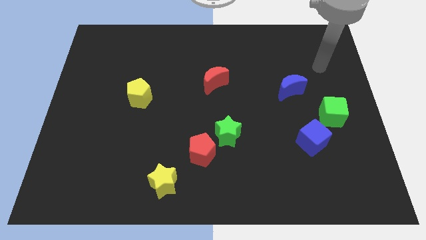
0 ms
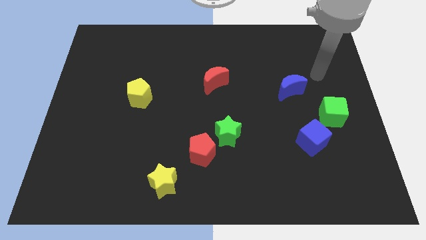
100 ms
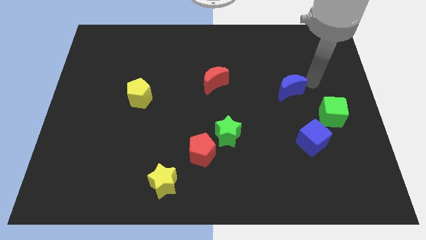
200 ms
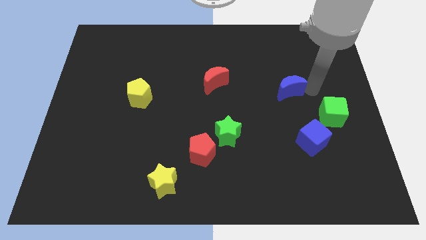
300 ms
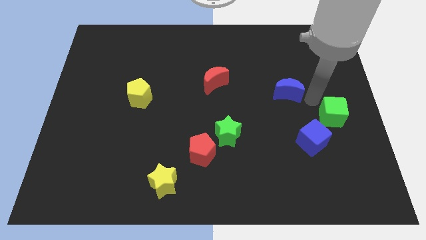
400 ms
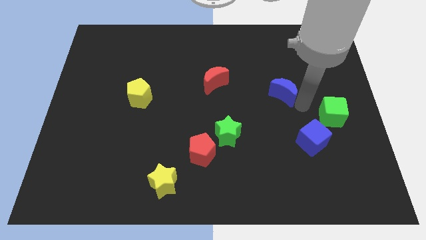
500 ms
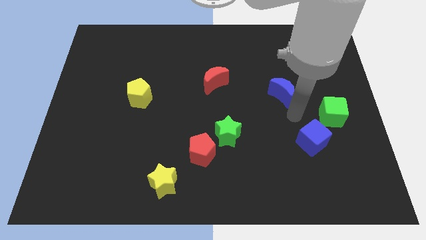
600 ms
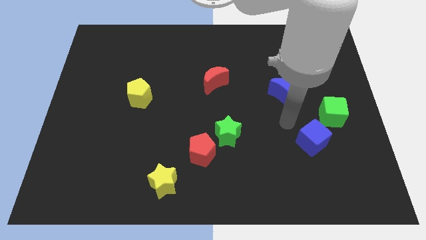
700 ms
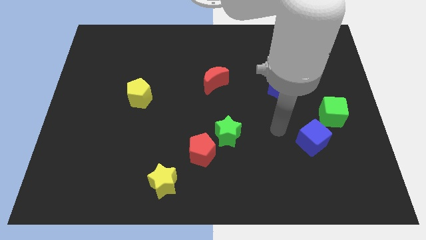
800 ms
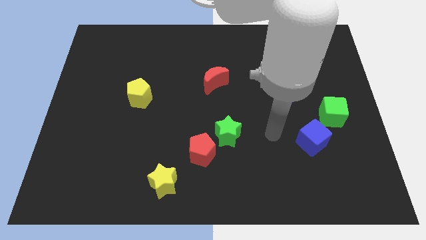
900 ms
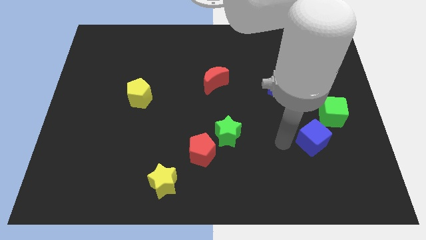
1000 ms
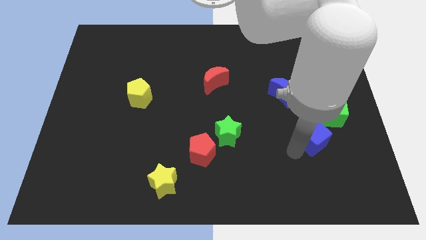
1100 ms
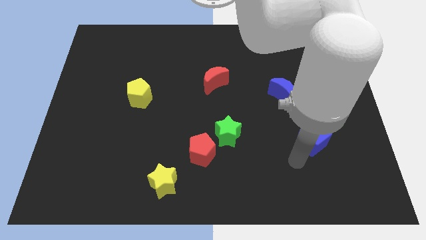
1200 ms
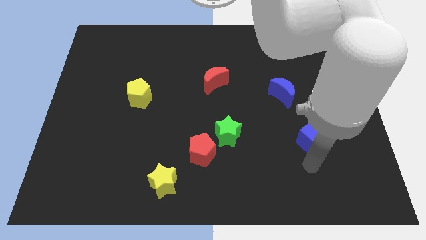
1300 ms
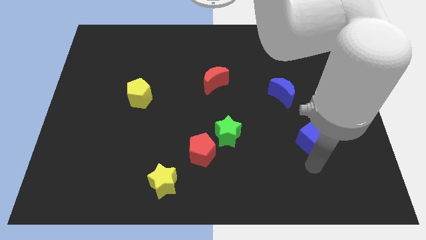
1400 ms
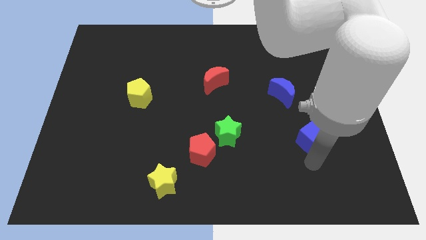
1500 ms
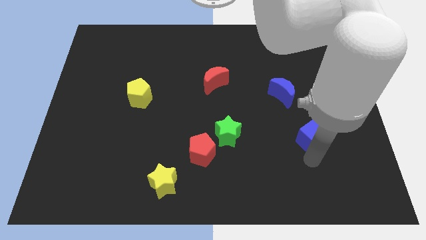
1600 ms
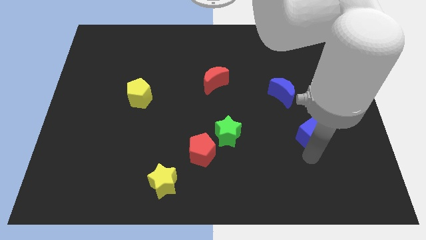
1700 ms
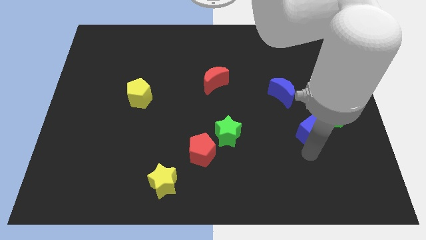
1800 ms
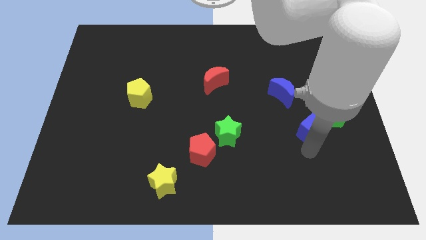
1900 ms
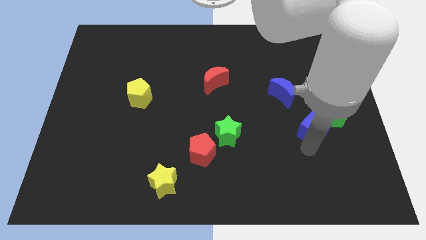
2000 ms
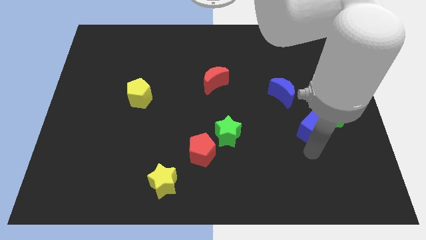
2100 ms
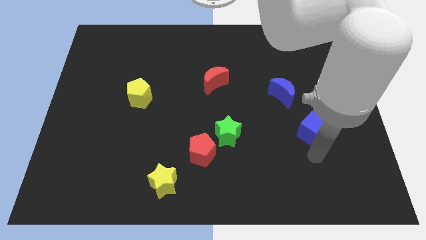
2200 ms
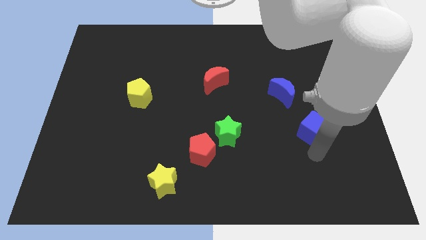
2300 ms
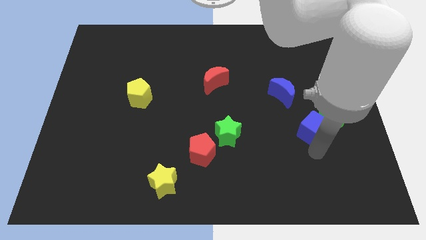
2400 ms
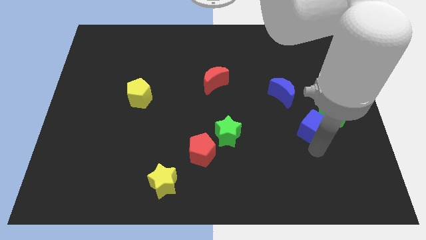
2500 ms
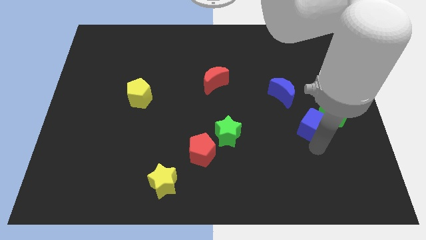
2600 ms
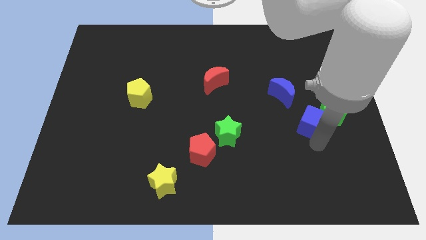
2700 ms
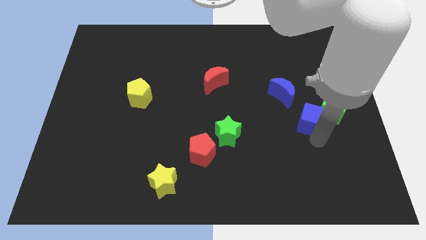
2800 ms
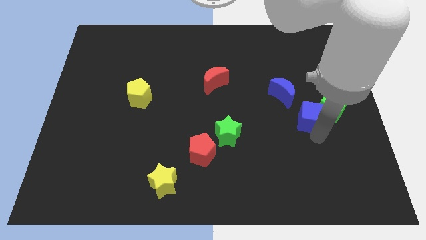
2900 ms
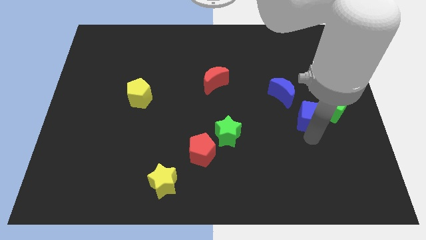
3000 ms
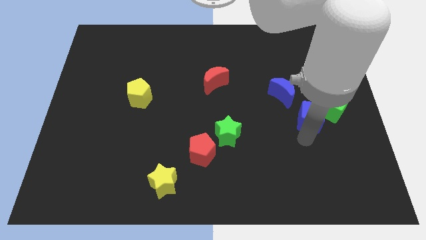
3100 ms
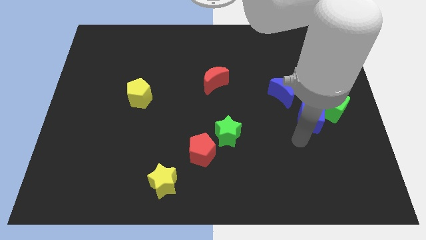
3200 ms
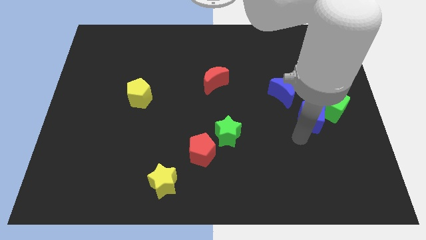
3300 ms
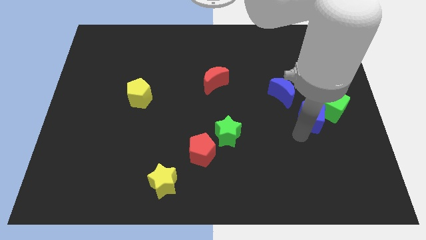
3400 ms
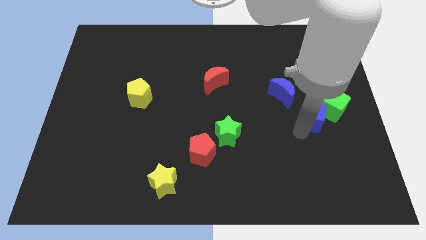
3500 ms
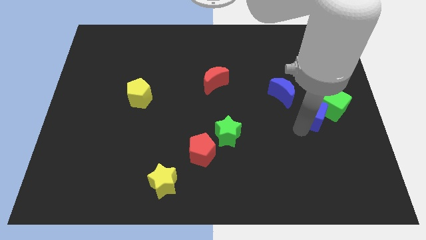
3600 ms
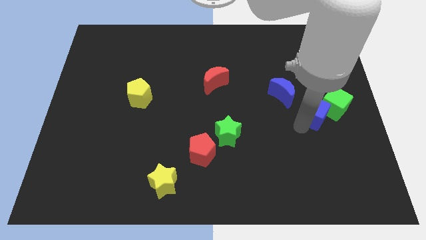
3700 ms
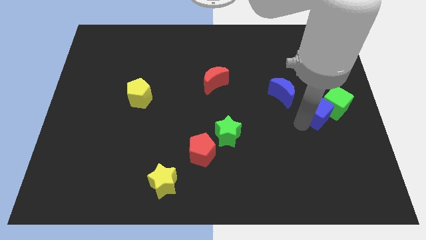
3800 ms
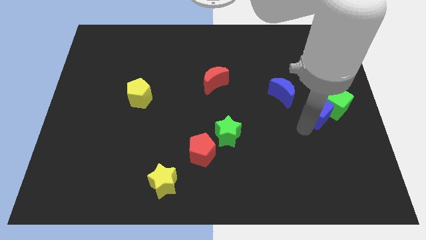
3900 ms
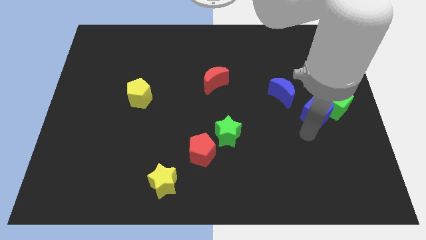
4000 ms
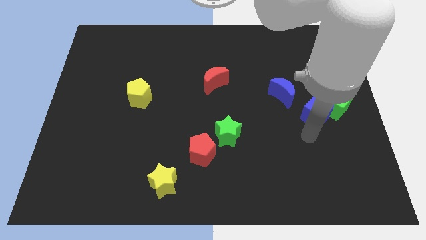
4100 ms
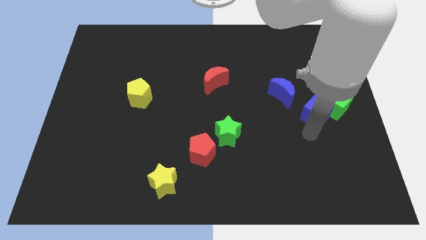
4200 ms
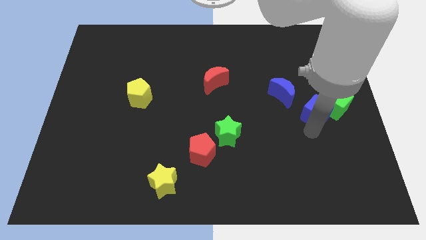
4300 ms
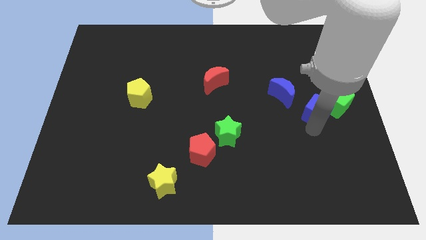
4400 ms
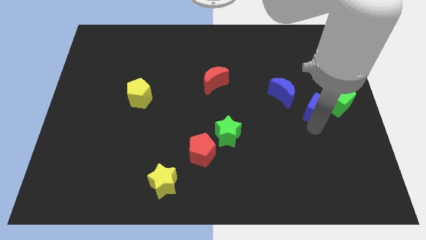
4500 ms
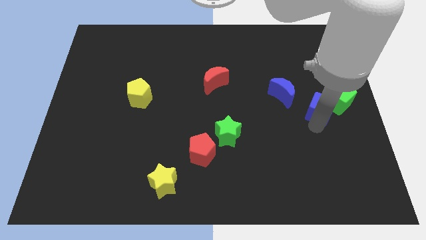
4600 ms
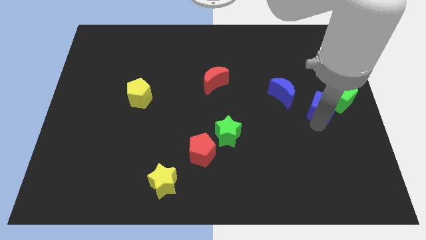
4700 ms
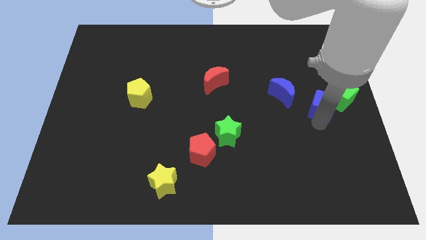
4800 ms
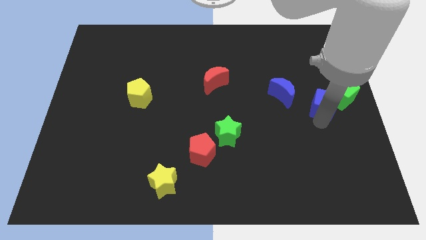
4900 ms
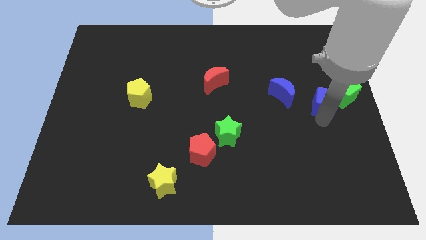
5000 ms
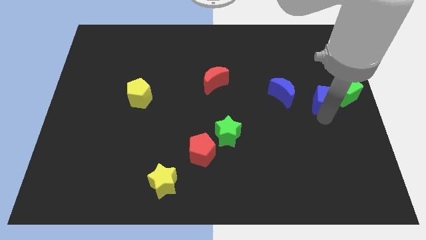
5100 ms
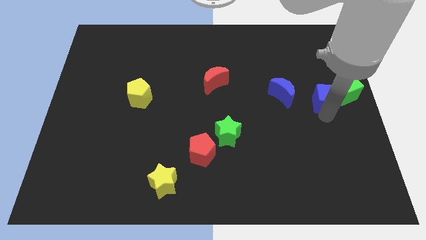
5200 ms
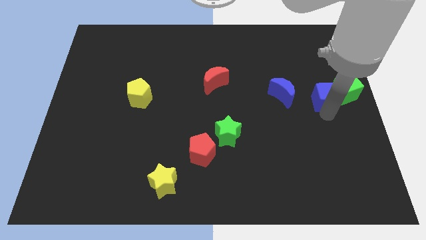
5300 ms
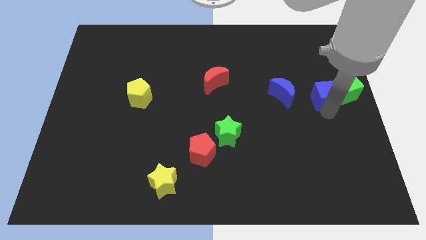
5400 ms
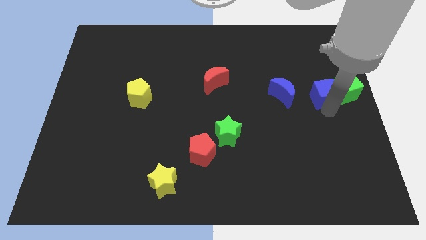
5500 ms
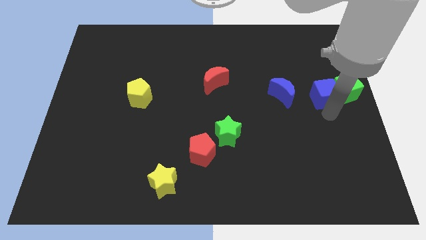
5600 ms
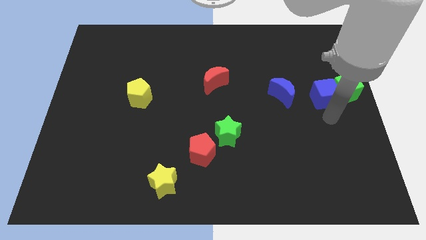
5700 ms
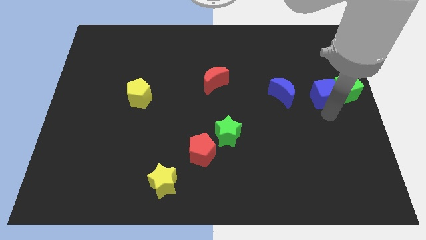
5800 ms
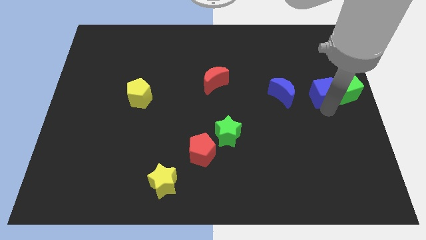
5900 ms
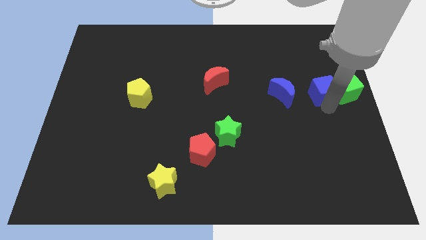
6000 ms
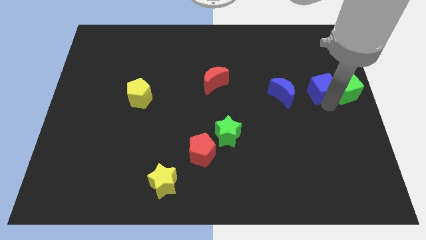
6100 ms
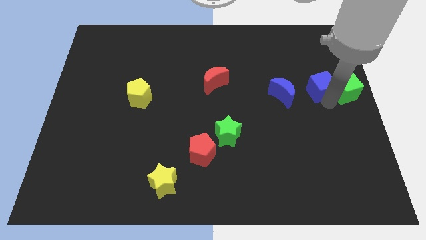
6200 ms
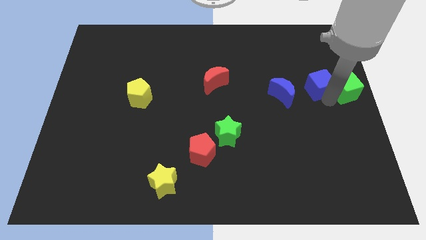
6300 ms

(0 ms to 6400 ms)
put the blue cube to the top right of the blue moon

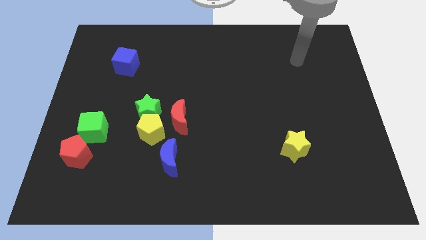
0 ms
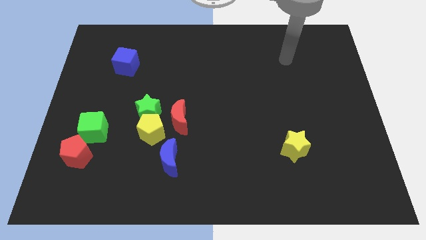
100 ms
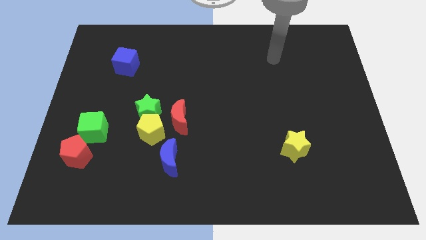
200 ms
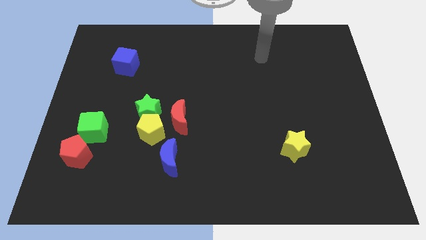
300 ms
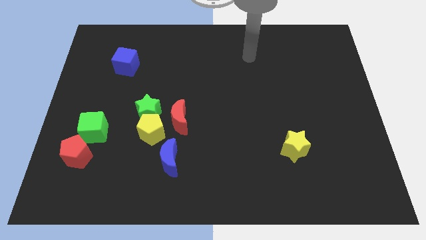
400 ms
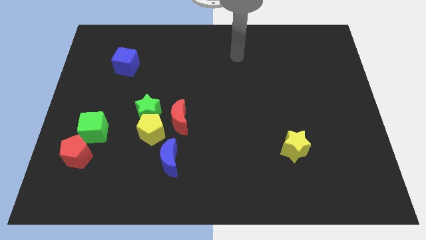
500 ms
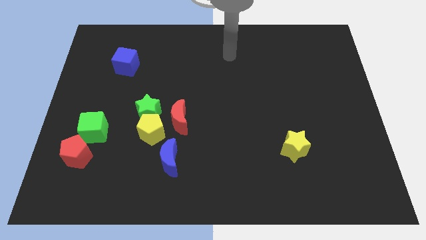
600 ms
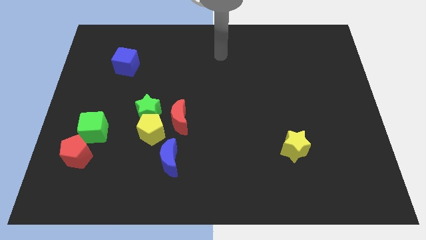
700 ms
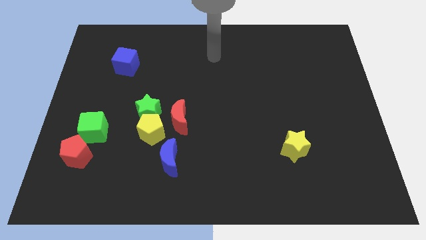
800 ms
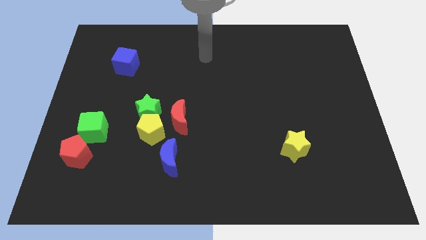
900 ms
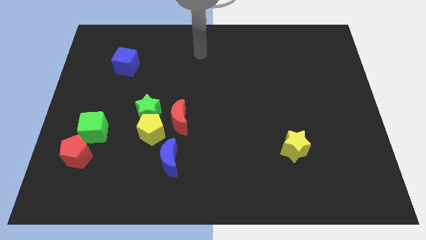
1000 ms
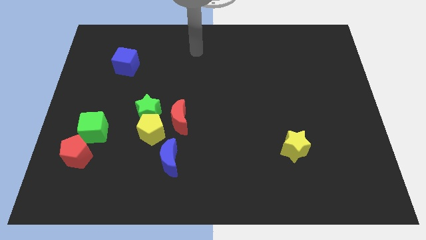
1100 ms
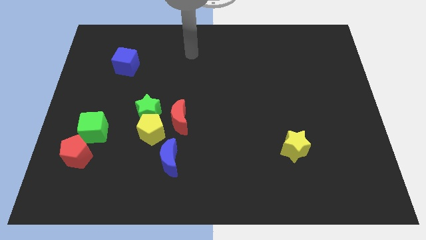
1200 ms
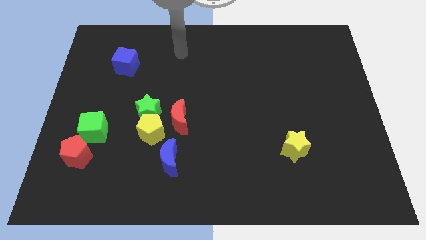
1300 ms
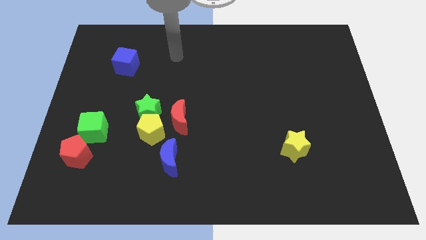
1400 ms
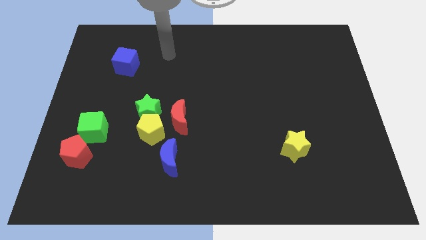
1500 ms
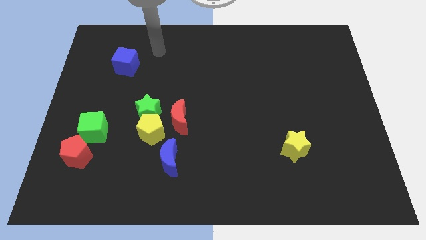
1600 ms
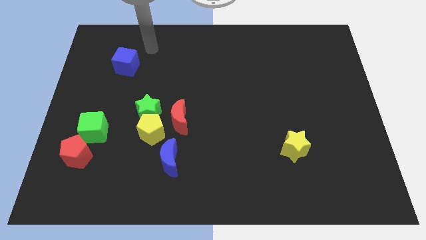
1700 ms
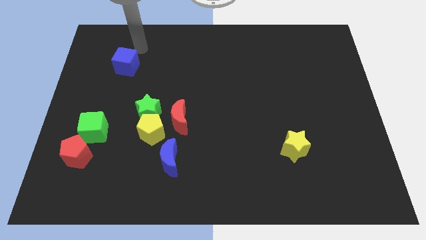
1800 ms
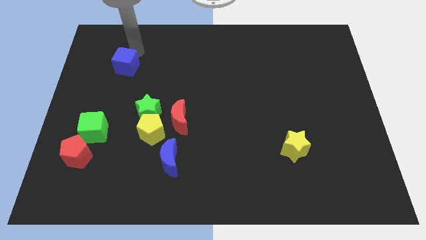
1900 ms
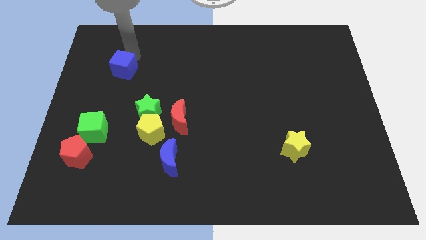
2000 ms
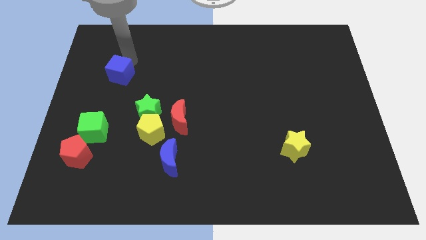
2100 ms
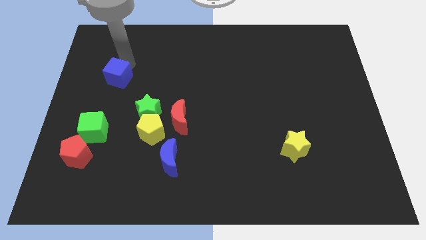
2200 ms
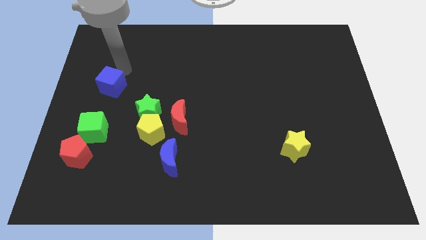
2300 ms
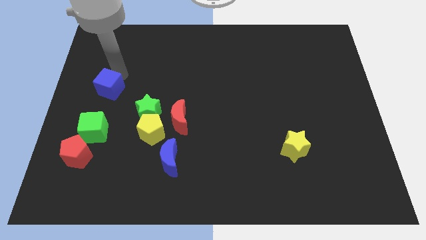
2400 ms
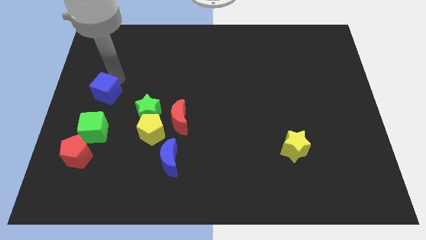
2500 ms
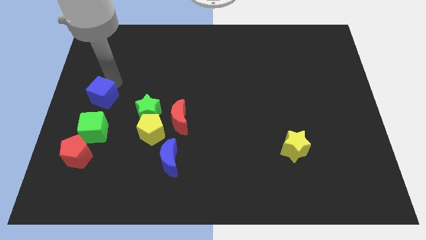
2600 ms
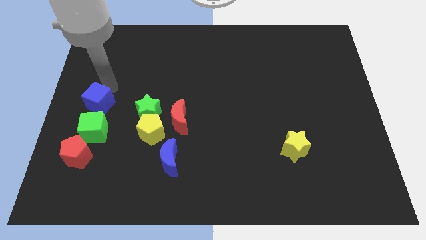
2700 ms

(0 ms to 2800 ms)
put the blue cube above the red pentagon
